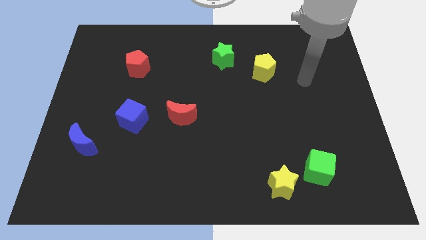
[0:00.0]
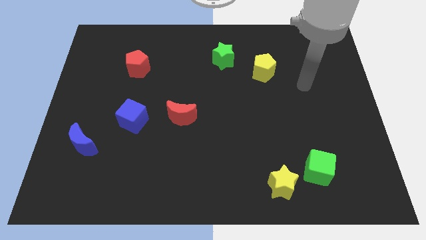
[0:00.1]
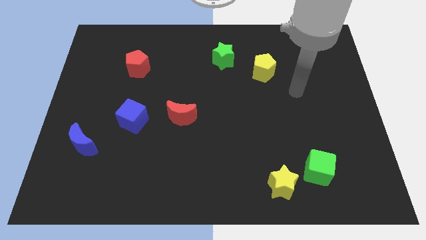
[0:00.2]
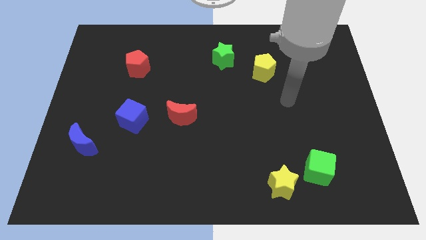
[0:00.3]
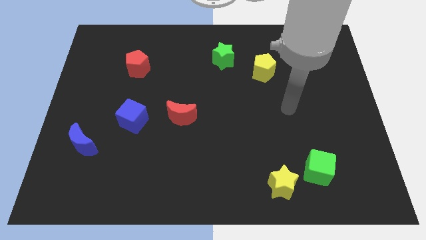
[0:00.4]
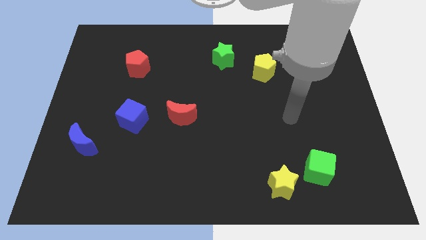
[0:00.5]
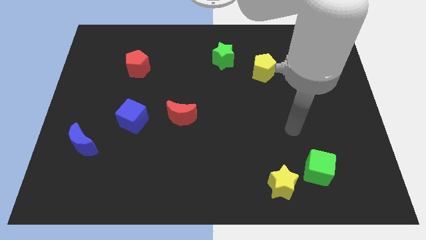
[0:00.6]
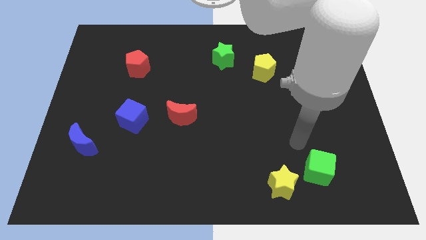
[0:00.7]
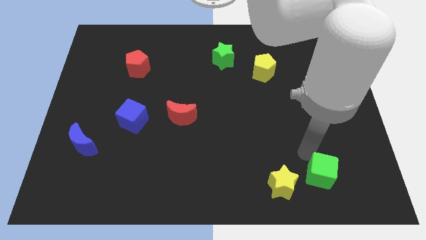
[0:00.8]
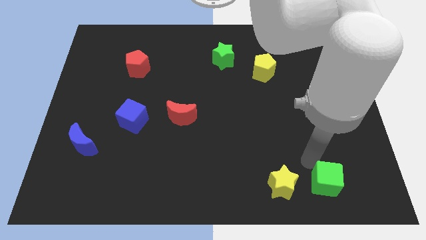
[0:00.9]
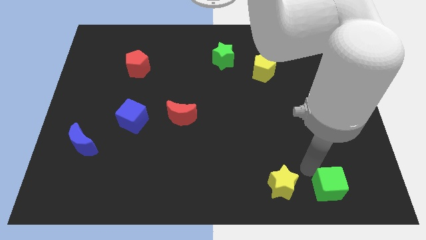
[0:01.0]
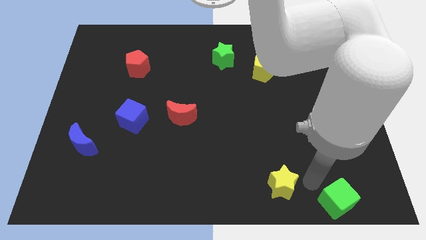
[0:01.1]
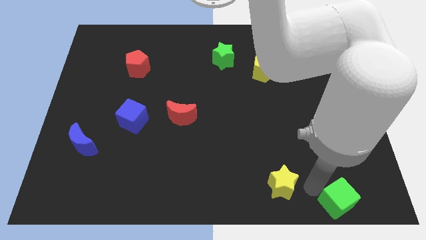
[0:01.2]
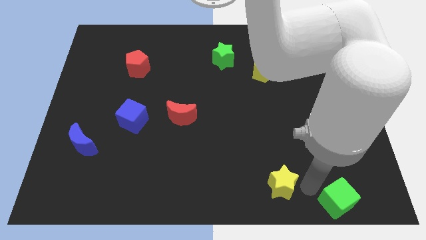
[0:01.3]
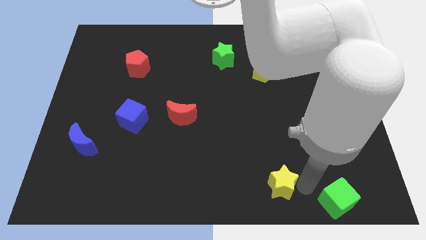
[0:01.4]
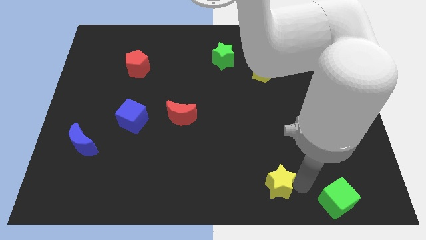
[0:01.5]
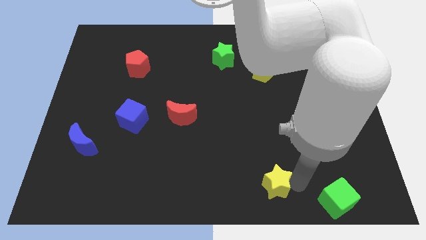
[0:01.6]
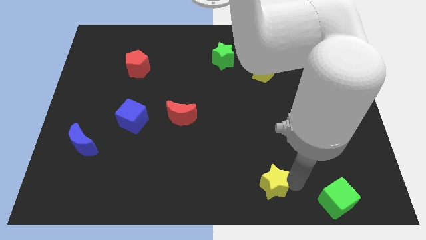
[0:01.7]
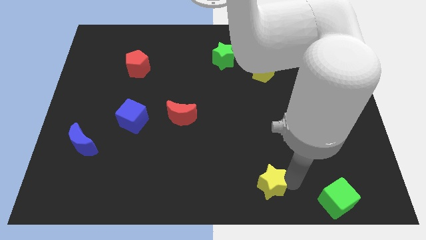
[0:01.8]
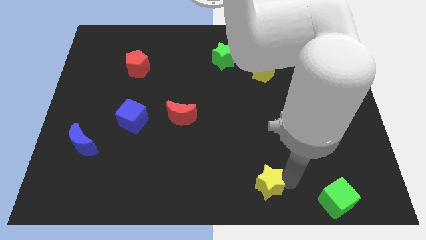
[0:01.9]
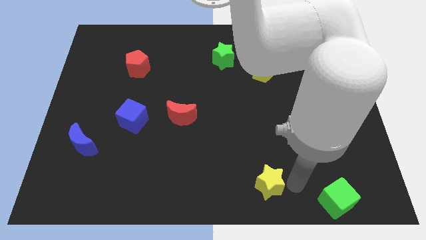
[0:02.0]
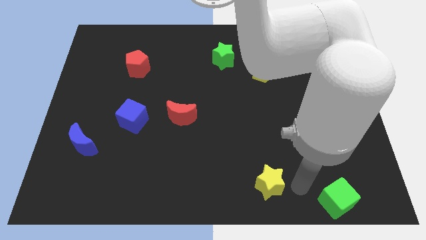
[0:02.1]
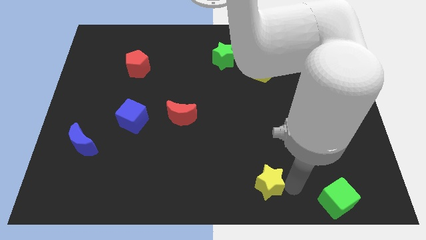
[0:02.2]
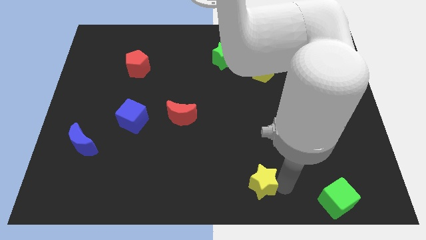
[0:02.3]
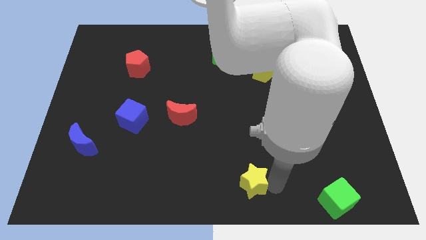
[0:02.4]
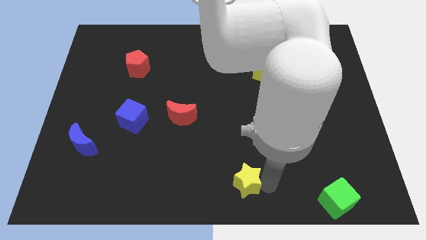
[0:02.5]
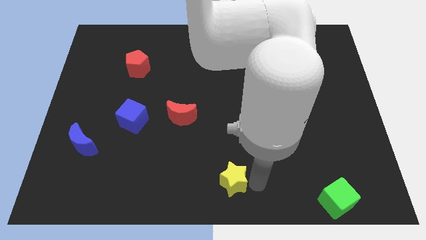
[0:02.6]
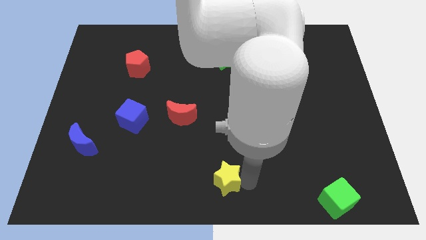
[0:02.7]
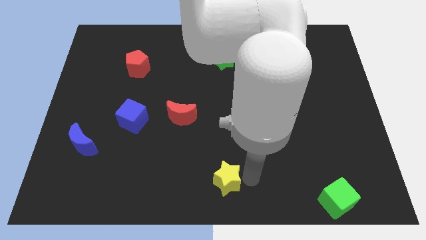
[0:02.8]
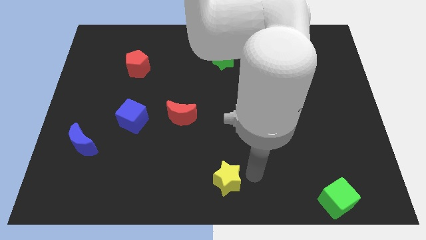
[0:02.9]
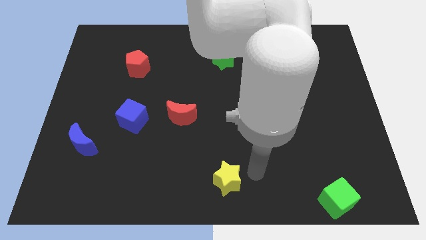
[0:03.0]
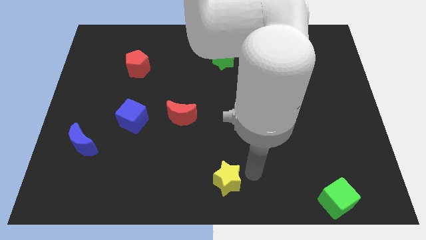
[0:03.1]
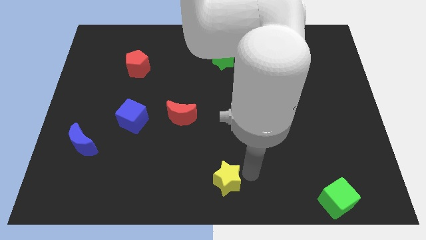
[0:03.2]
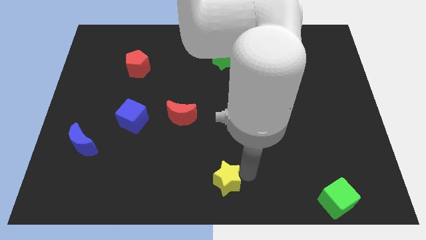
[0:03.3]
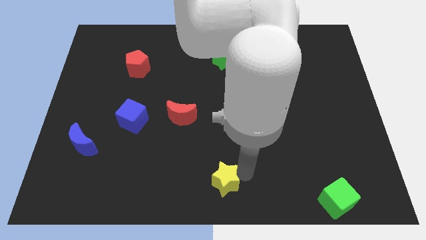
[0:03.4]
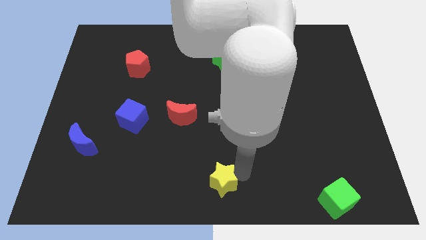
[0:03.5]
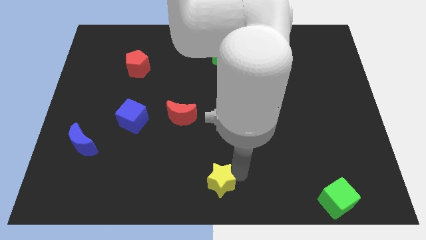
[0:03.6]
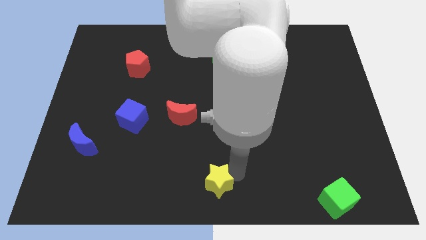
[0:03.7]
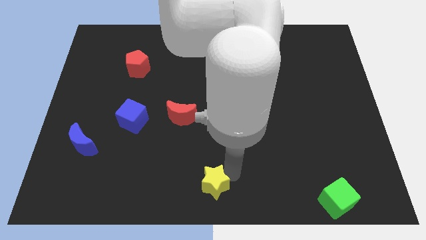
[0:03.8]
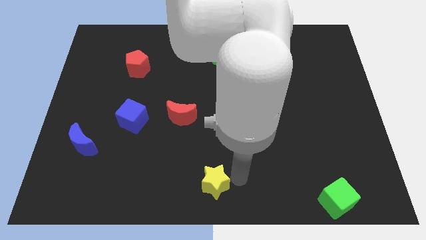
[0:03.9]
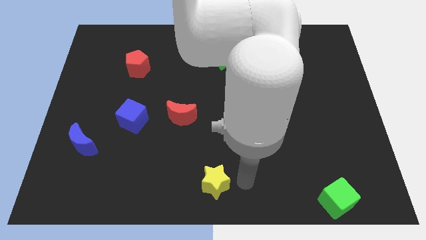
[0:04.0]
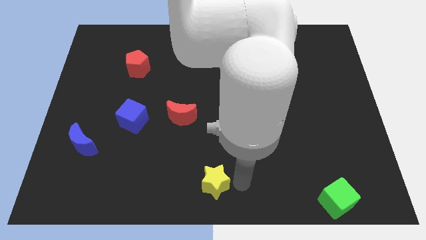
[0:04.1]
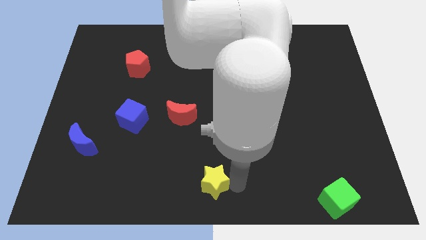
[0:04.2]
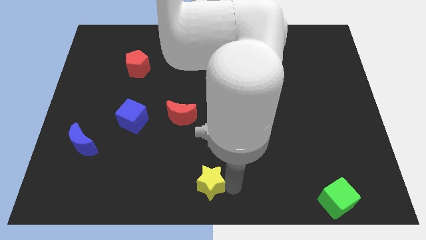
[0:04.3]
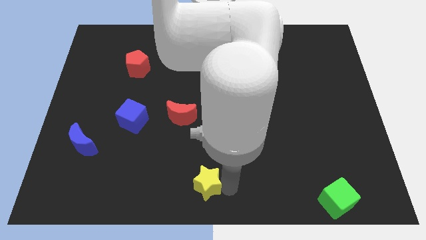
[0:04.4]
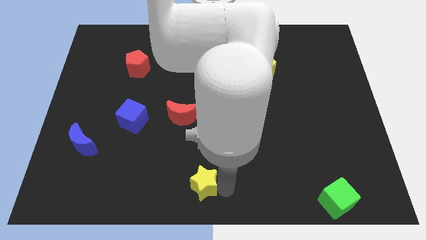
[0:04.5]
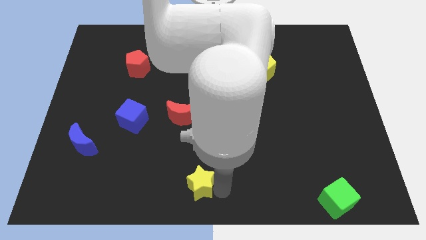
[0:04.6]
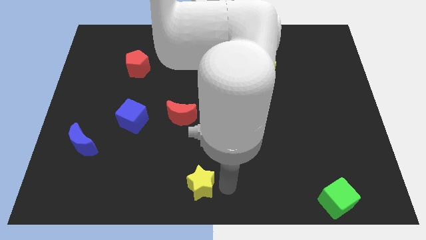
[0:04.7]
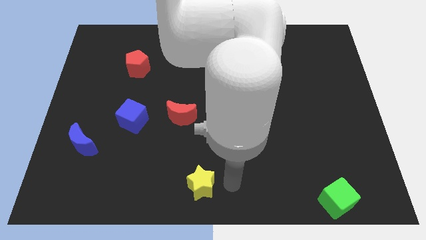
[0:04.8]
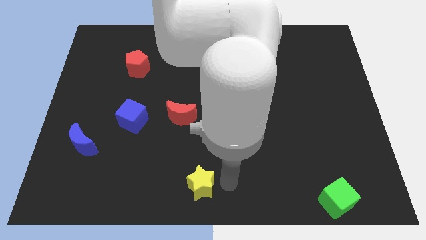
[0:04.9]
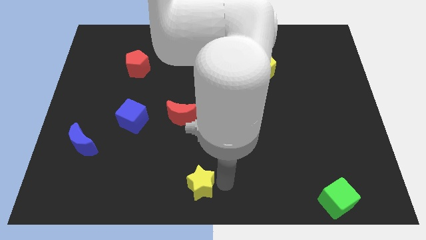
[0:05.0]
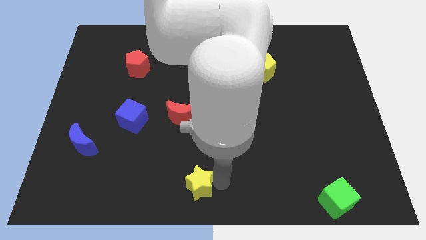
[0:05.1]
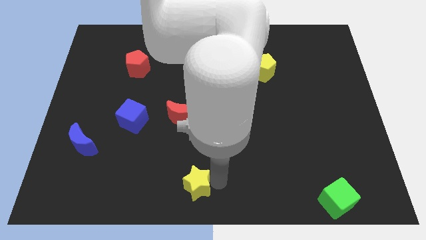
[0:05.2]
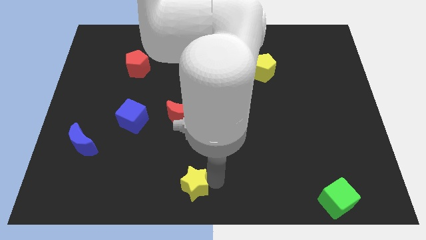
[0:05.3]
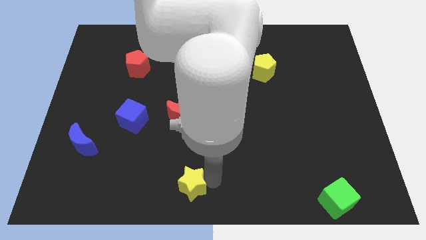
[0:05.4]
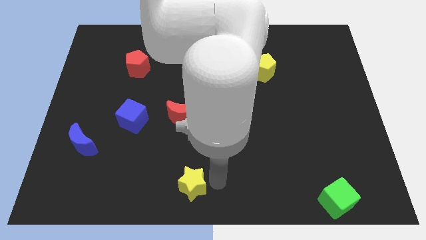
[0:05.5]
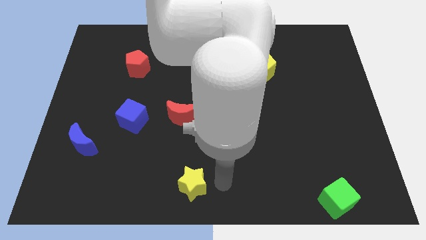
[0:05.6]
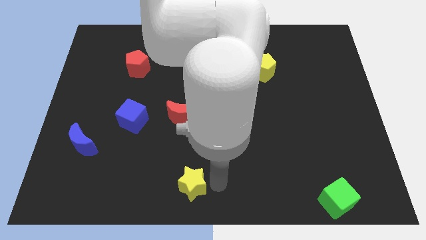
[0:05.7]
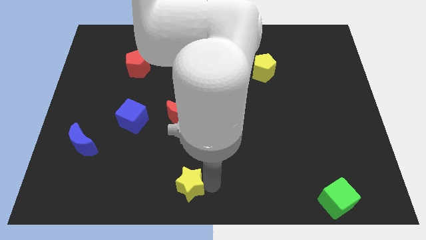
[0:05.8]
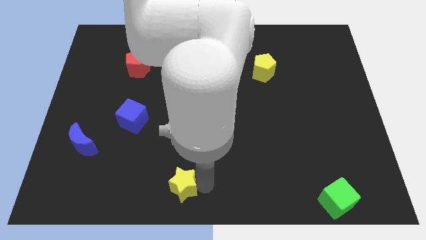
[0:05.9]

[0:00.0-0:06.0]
slide the yellow star to the left

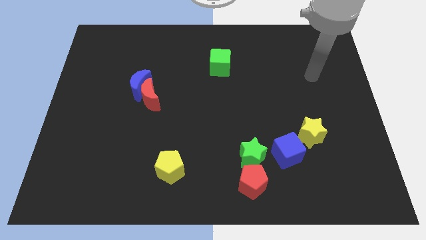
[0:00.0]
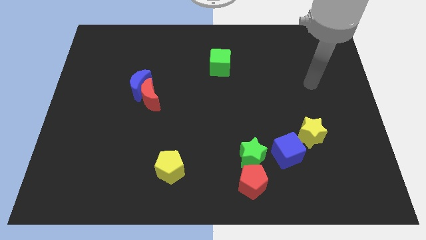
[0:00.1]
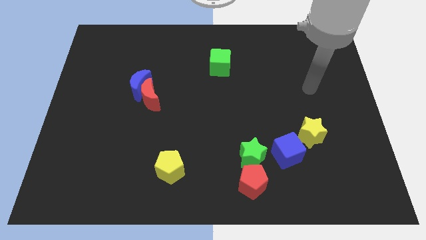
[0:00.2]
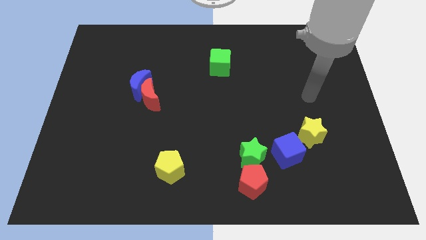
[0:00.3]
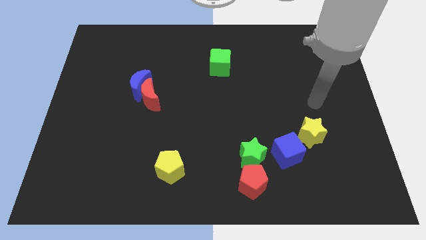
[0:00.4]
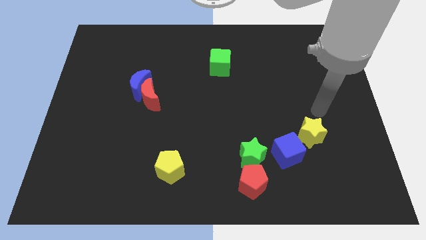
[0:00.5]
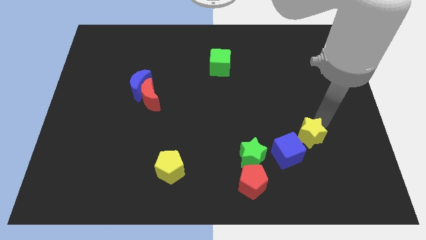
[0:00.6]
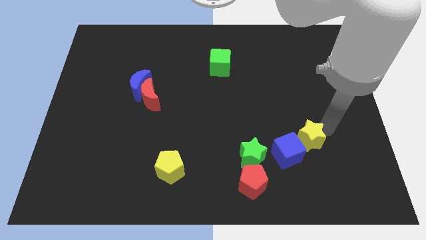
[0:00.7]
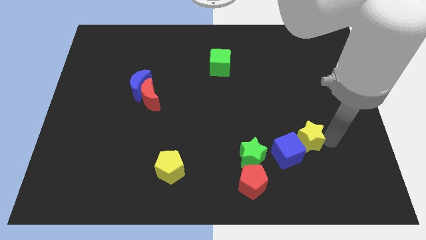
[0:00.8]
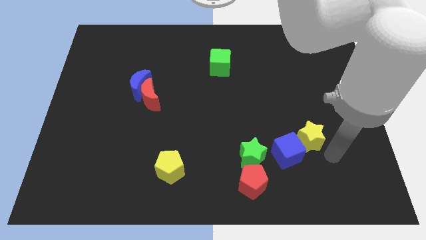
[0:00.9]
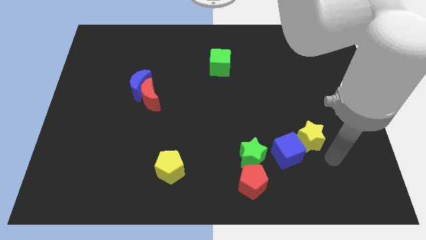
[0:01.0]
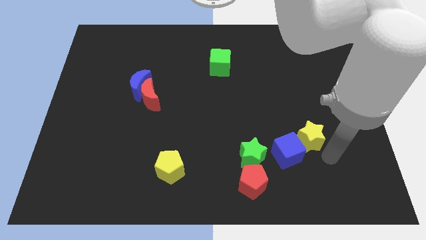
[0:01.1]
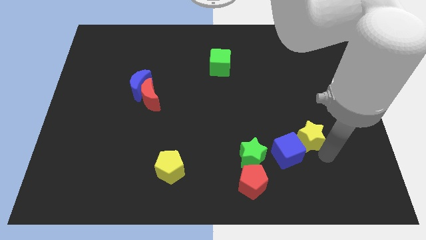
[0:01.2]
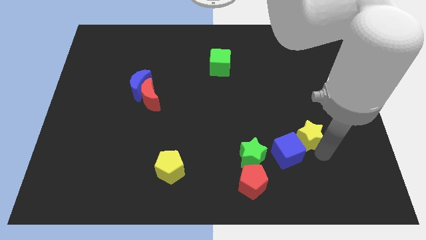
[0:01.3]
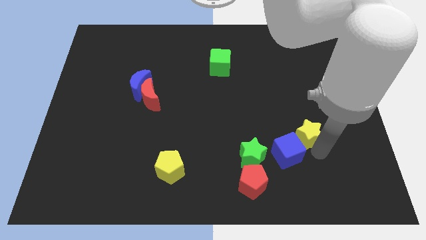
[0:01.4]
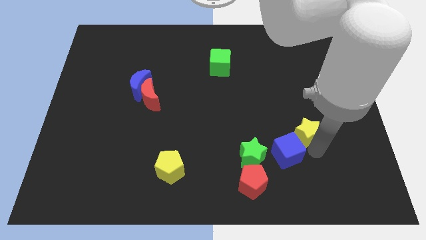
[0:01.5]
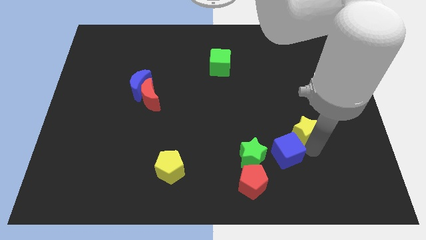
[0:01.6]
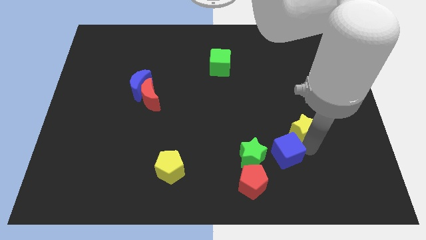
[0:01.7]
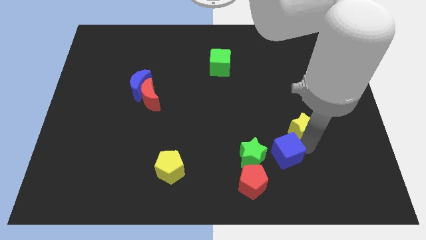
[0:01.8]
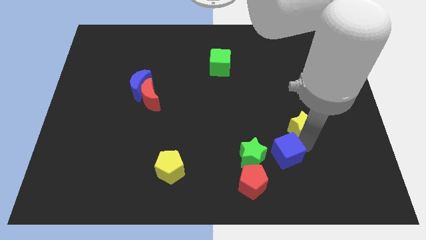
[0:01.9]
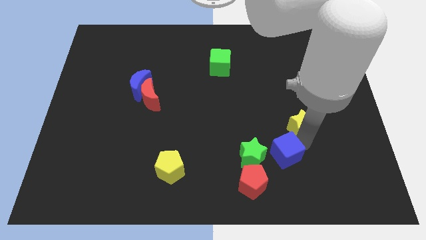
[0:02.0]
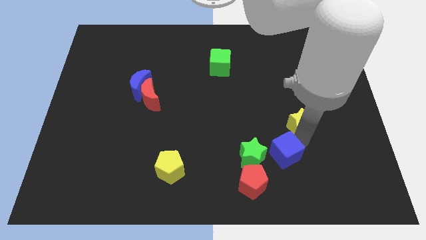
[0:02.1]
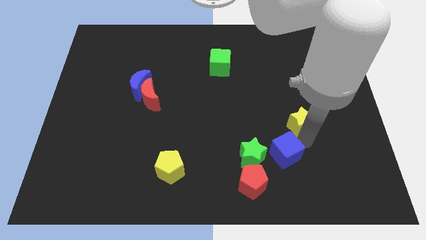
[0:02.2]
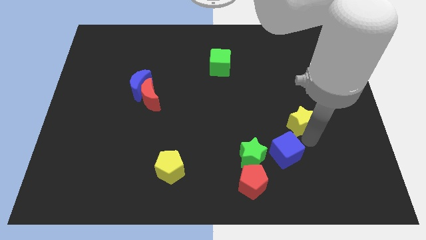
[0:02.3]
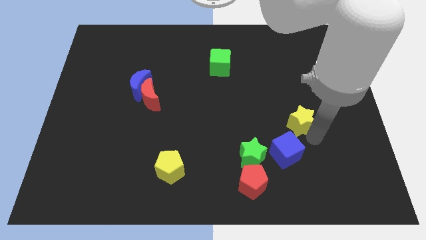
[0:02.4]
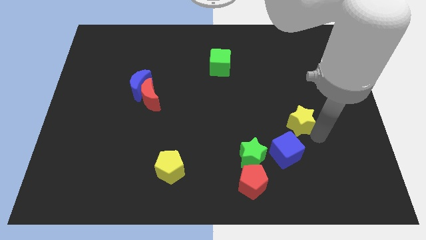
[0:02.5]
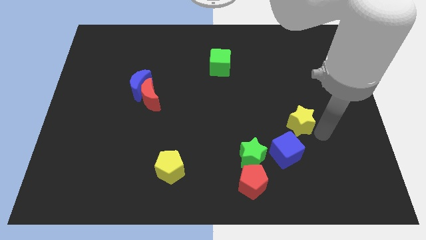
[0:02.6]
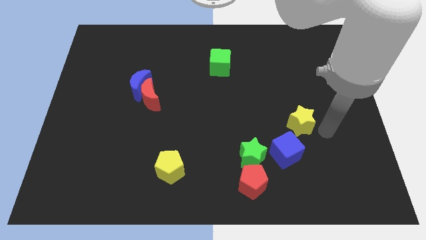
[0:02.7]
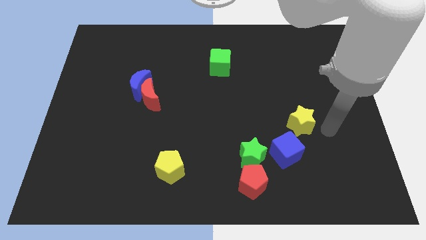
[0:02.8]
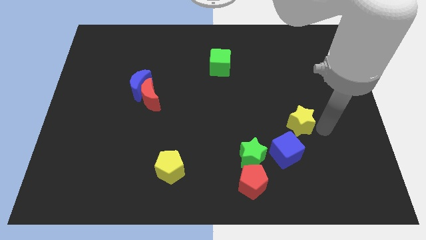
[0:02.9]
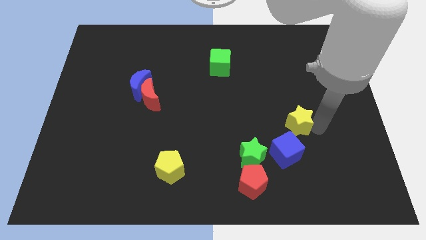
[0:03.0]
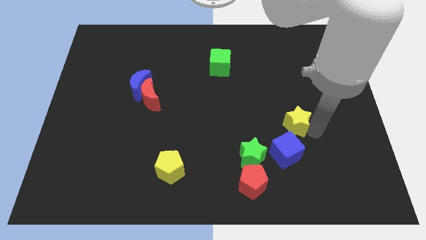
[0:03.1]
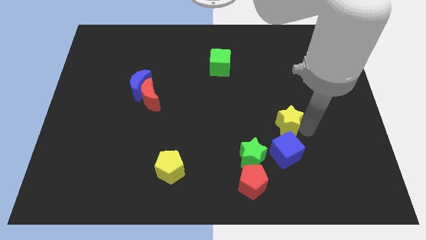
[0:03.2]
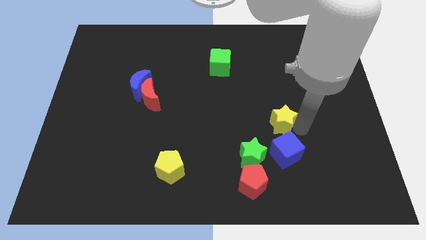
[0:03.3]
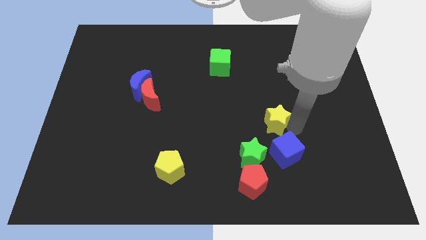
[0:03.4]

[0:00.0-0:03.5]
move the yellow star a little bit upwards and then left
